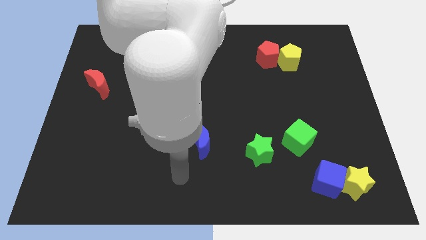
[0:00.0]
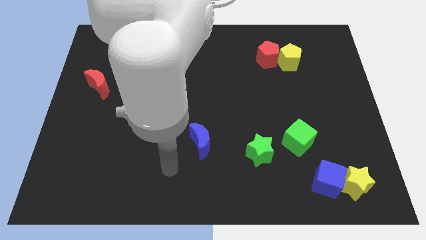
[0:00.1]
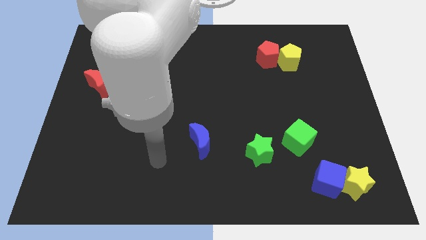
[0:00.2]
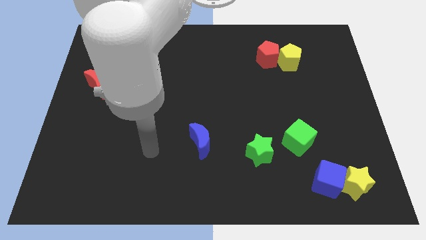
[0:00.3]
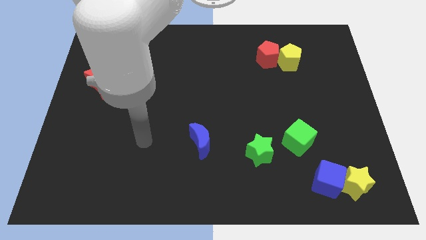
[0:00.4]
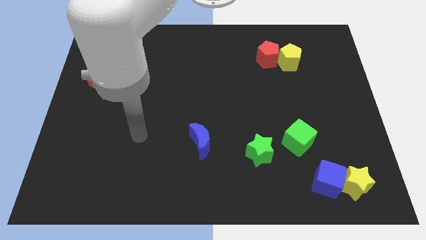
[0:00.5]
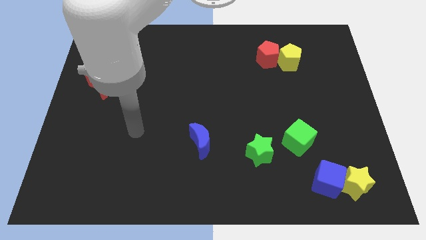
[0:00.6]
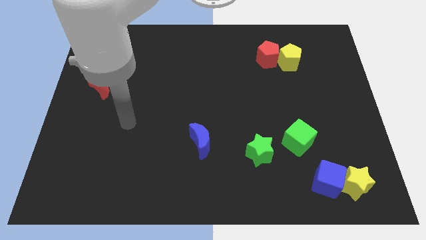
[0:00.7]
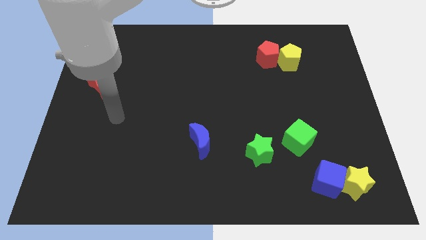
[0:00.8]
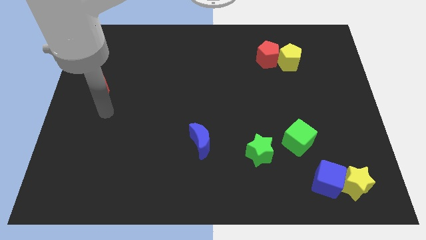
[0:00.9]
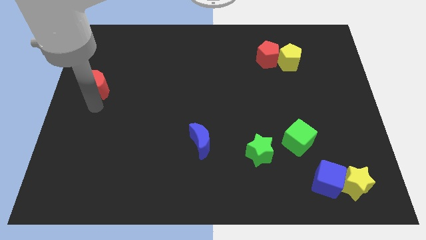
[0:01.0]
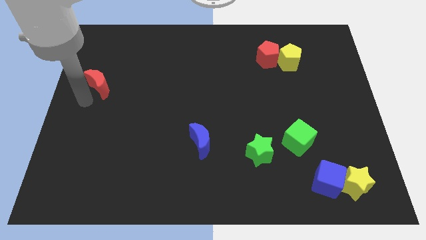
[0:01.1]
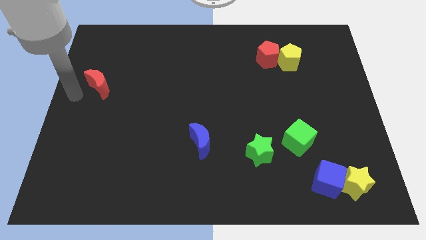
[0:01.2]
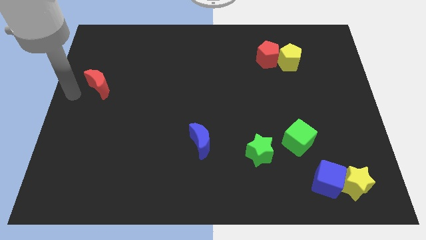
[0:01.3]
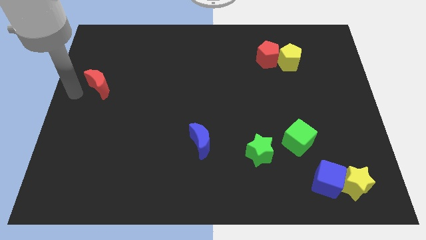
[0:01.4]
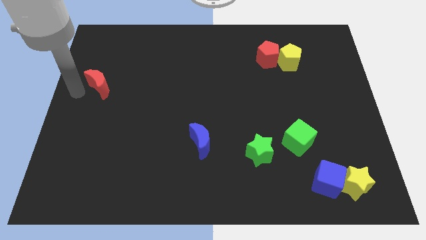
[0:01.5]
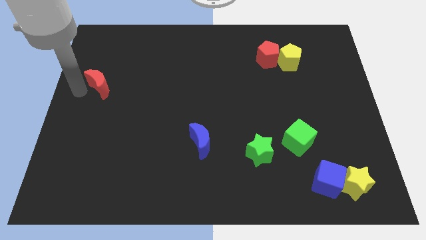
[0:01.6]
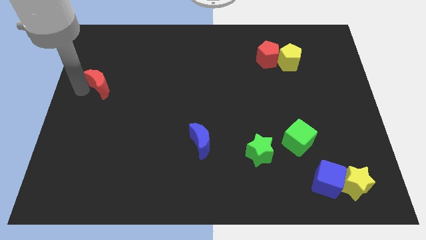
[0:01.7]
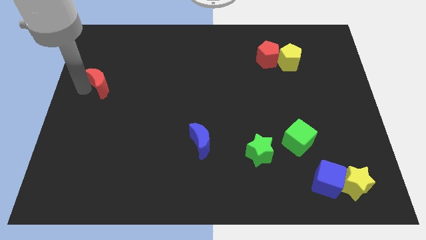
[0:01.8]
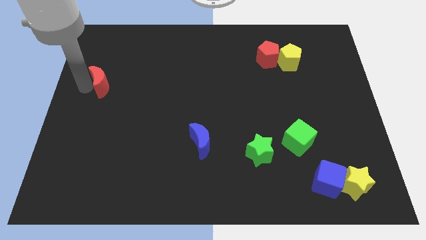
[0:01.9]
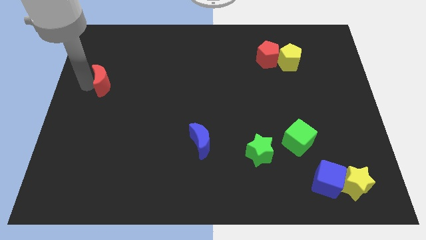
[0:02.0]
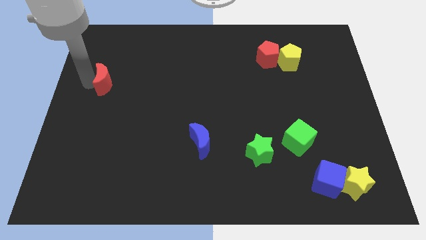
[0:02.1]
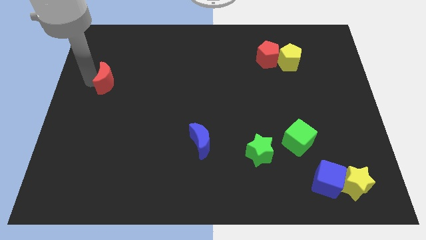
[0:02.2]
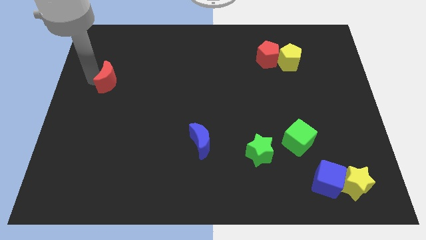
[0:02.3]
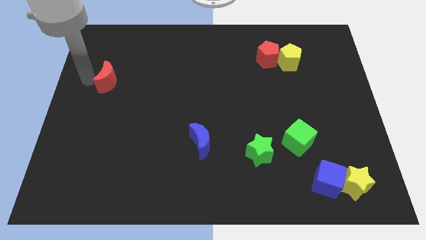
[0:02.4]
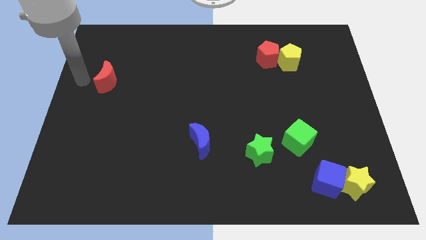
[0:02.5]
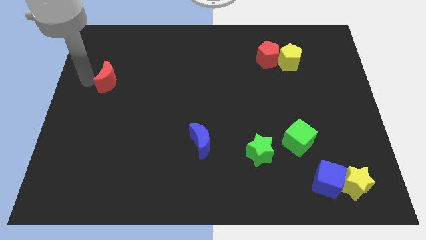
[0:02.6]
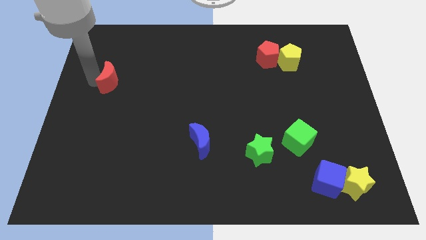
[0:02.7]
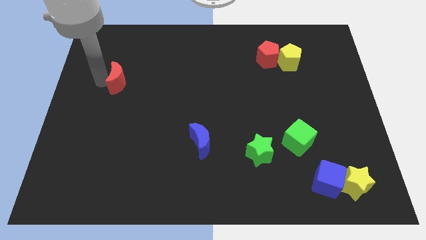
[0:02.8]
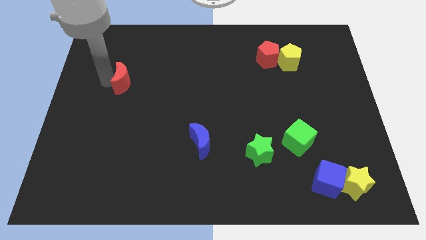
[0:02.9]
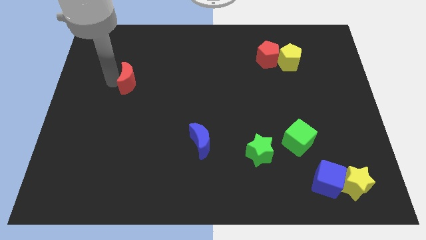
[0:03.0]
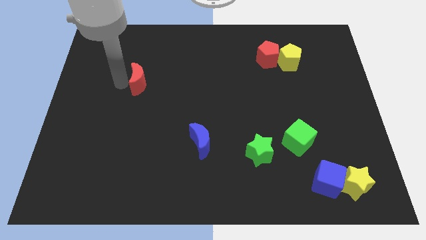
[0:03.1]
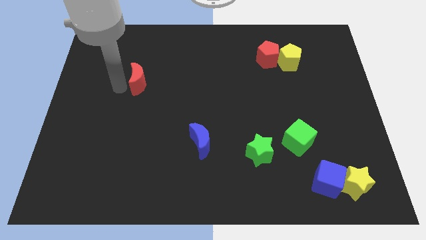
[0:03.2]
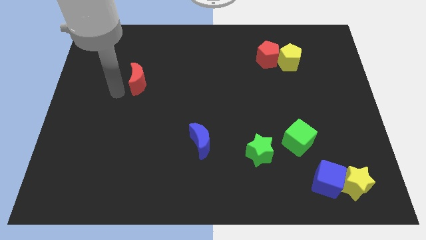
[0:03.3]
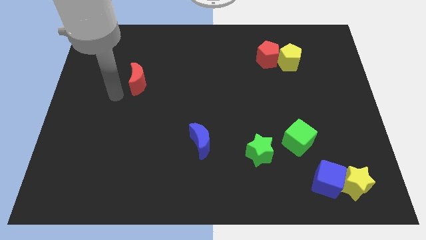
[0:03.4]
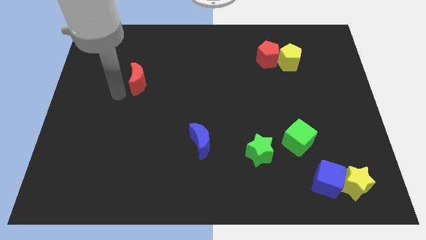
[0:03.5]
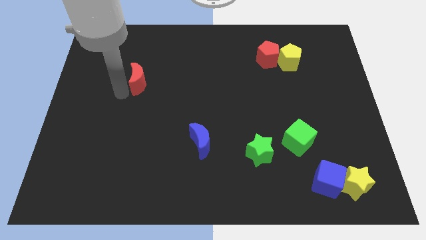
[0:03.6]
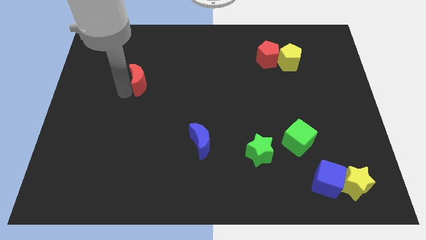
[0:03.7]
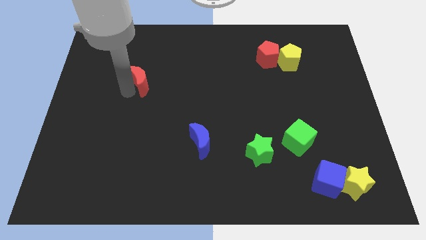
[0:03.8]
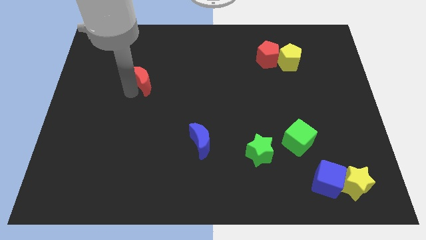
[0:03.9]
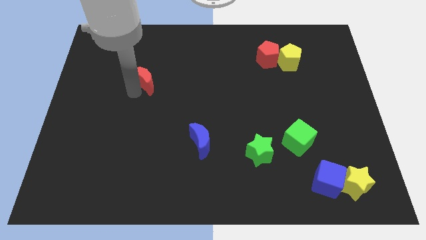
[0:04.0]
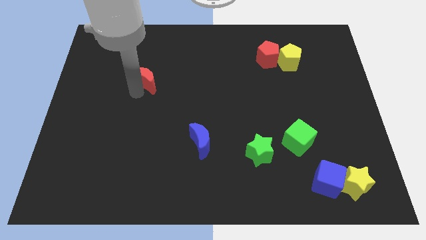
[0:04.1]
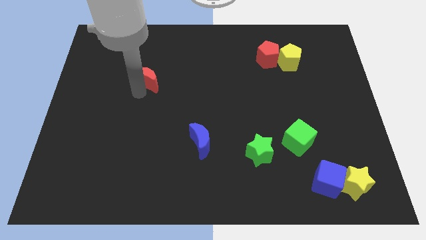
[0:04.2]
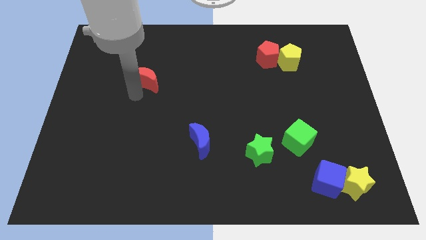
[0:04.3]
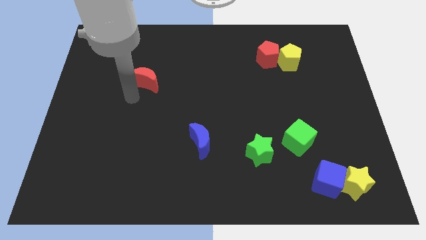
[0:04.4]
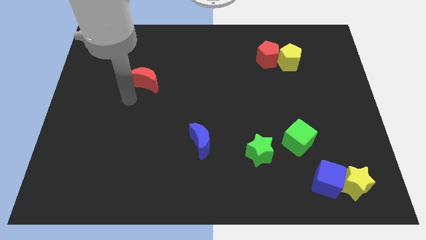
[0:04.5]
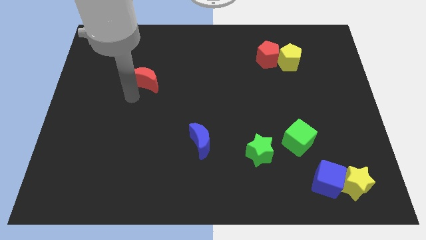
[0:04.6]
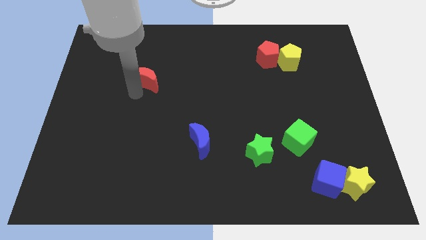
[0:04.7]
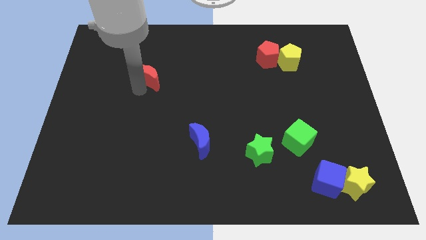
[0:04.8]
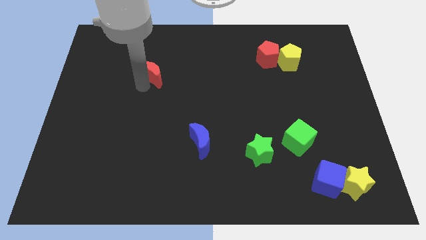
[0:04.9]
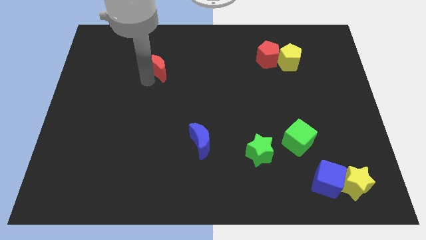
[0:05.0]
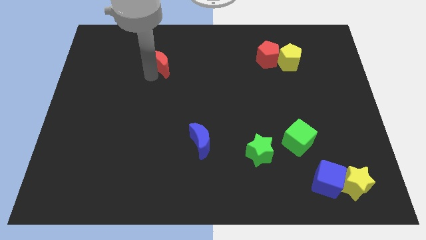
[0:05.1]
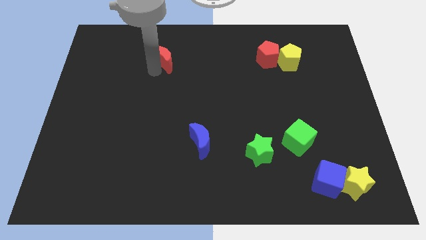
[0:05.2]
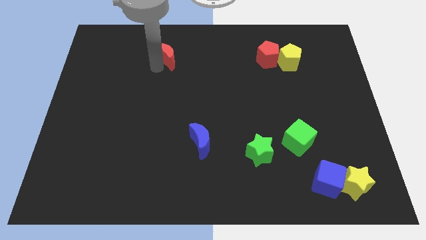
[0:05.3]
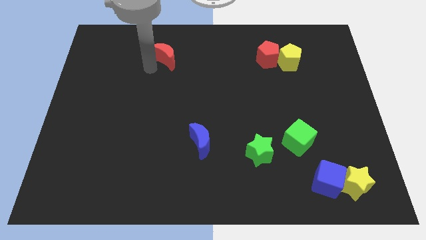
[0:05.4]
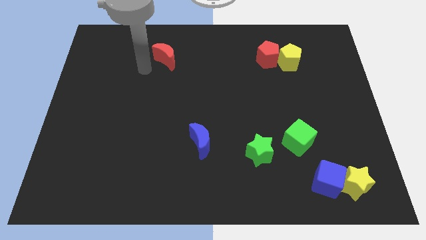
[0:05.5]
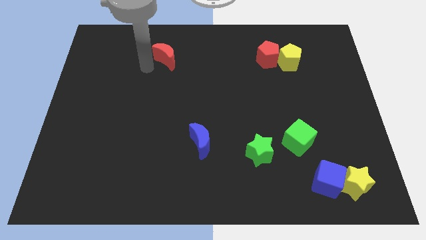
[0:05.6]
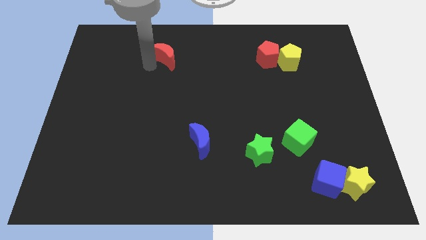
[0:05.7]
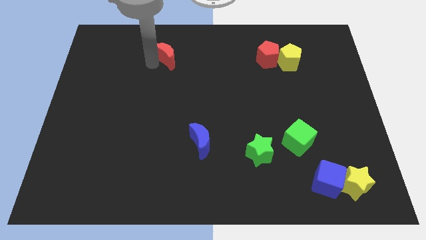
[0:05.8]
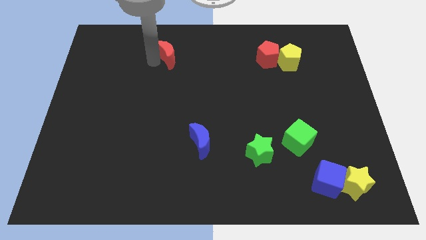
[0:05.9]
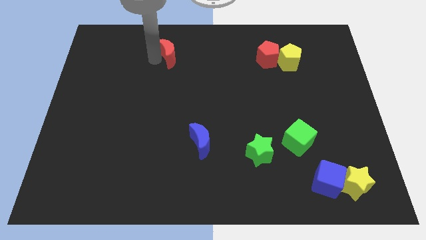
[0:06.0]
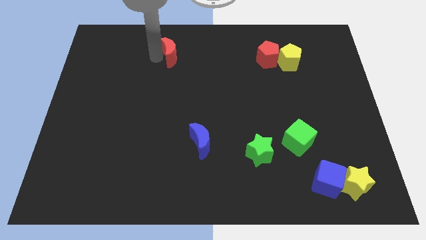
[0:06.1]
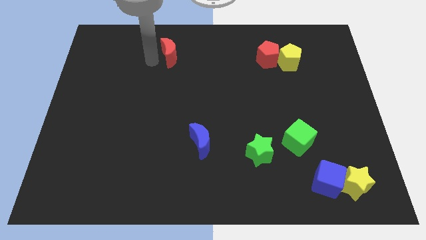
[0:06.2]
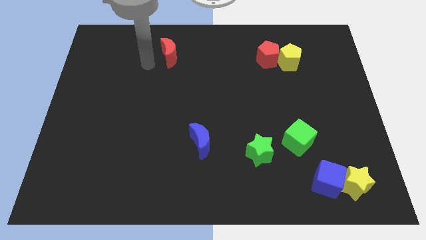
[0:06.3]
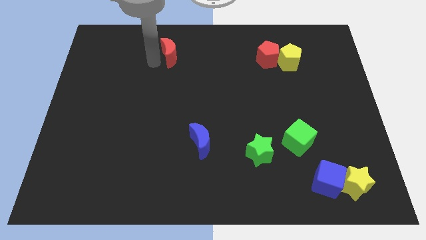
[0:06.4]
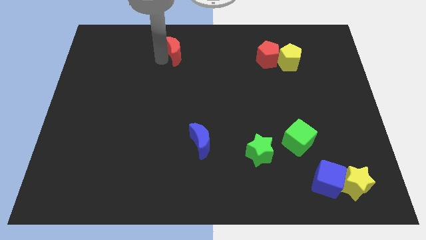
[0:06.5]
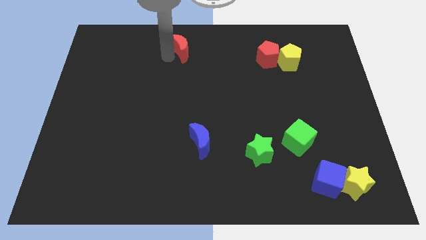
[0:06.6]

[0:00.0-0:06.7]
move the red moon to the towards your base

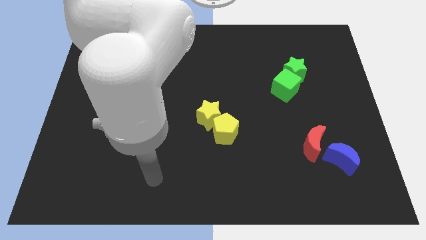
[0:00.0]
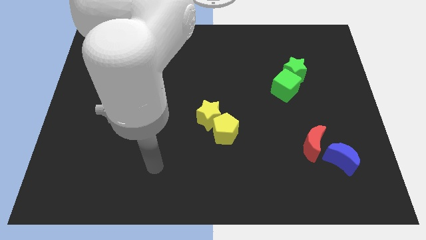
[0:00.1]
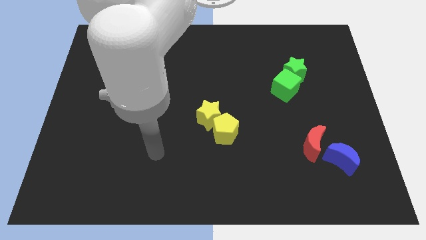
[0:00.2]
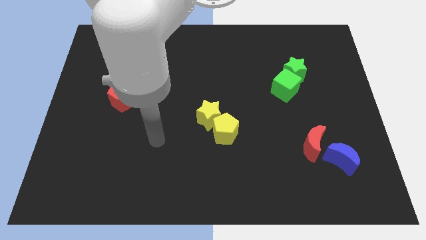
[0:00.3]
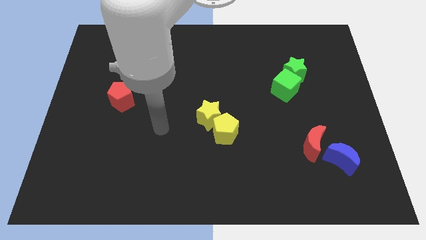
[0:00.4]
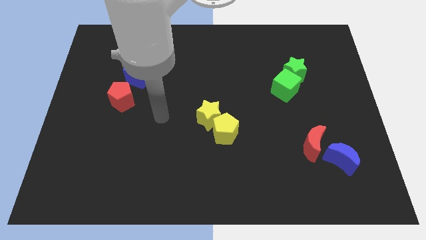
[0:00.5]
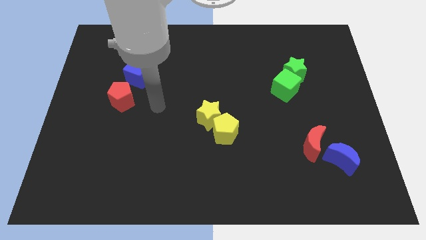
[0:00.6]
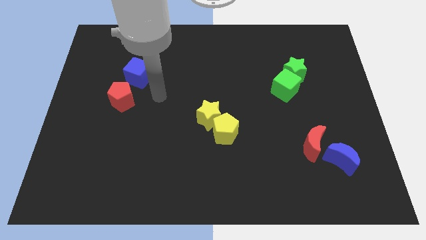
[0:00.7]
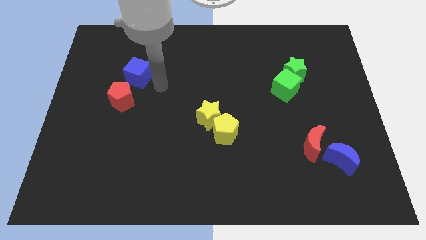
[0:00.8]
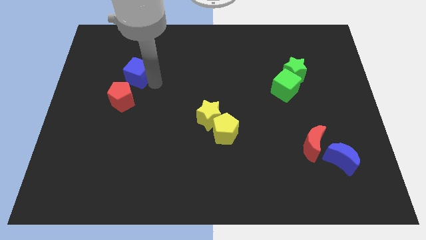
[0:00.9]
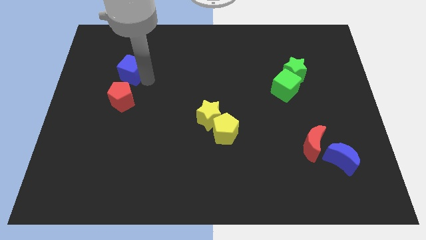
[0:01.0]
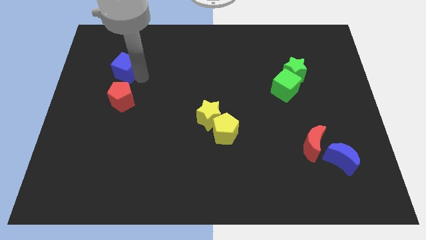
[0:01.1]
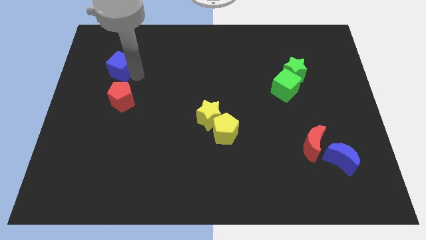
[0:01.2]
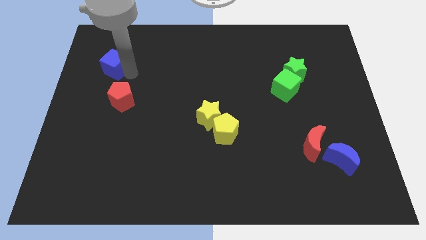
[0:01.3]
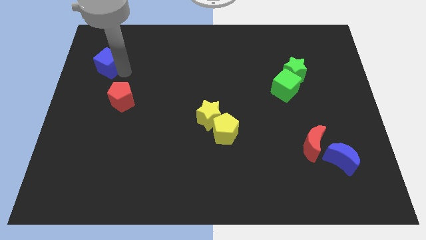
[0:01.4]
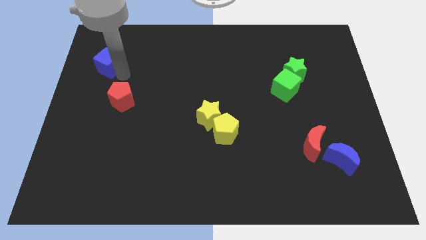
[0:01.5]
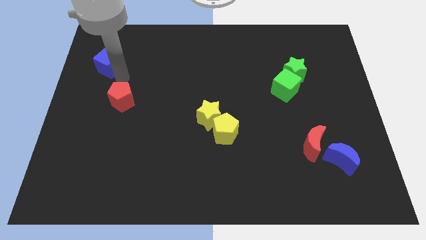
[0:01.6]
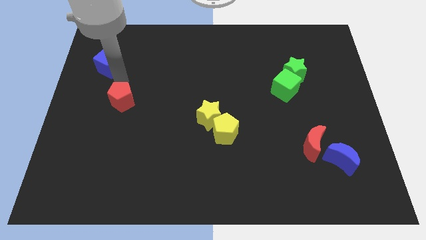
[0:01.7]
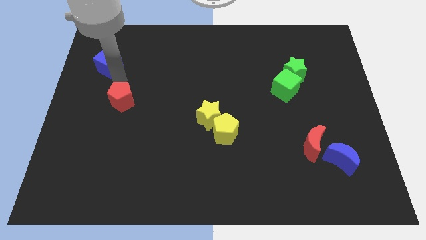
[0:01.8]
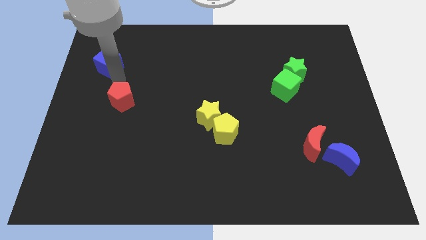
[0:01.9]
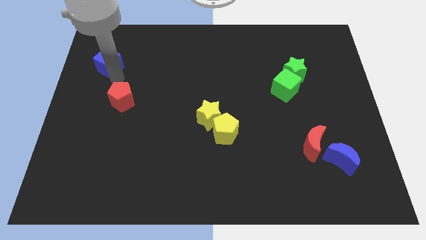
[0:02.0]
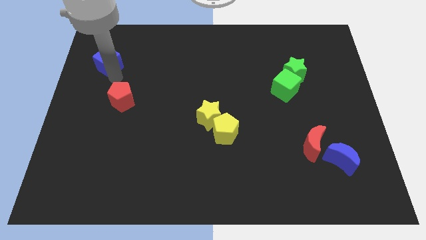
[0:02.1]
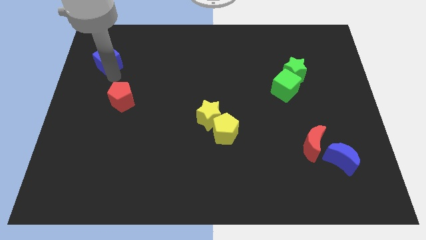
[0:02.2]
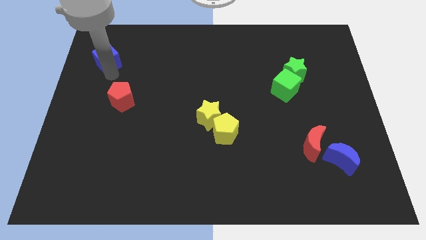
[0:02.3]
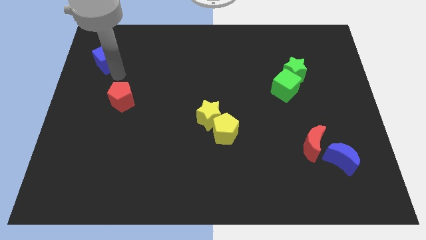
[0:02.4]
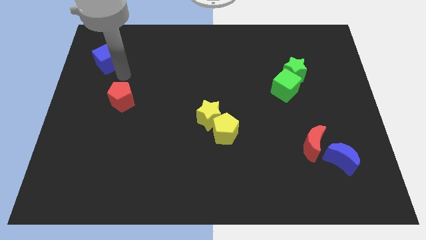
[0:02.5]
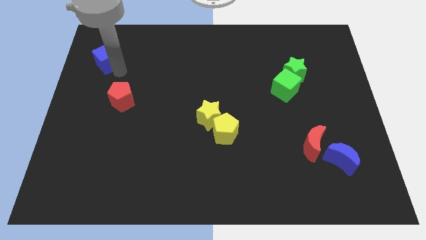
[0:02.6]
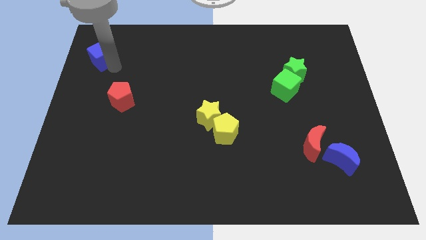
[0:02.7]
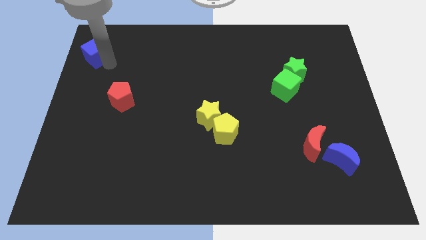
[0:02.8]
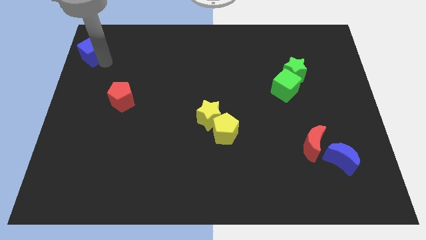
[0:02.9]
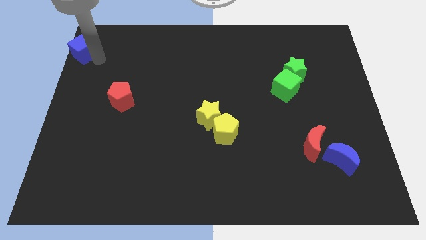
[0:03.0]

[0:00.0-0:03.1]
put the blue cube to the top left
